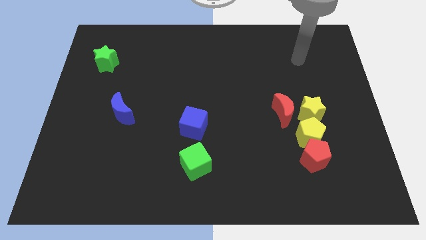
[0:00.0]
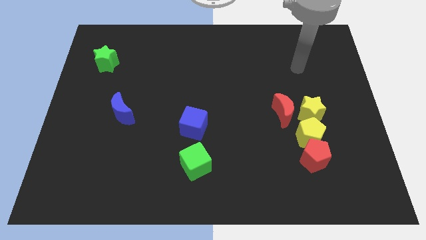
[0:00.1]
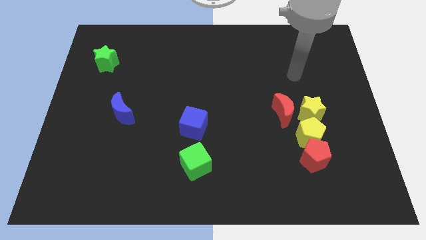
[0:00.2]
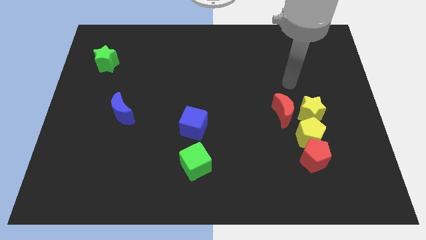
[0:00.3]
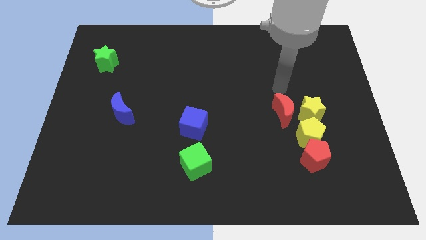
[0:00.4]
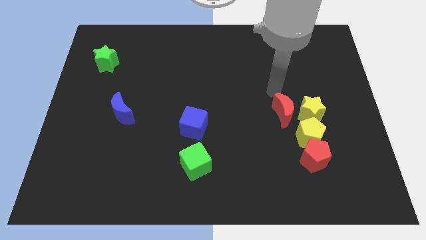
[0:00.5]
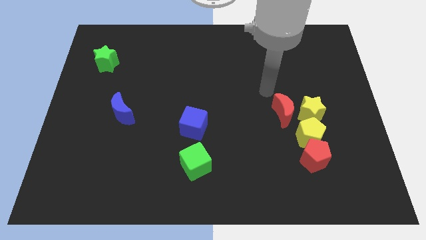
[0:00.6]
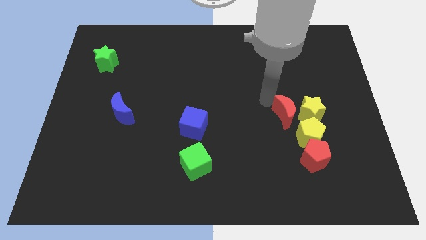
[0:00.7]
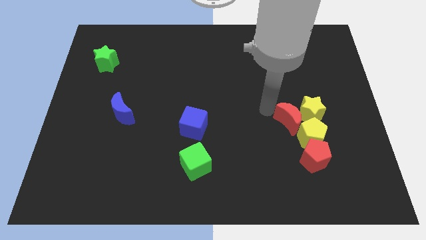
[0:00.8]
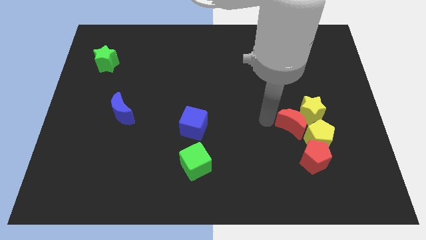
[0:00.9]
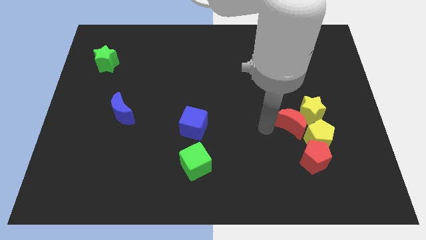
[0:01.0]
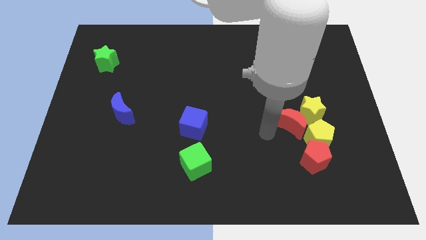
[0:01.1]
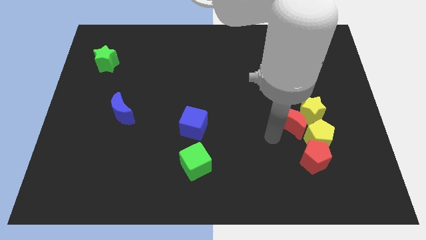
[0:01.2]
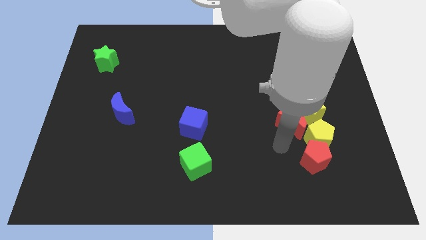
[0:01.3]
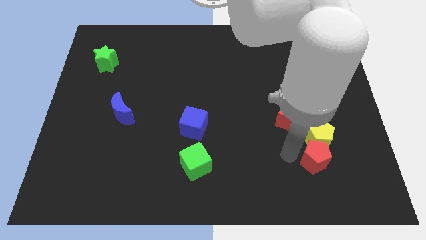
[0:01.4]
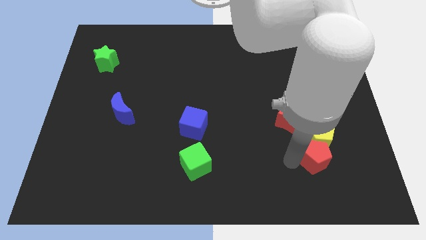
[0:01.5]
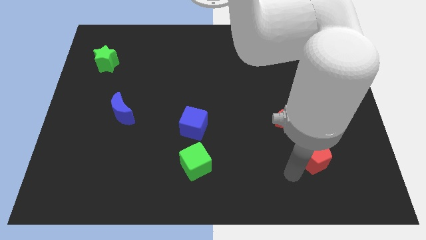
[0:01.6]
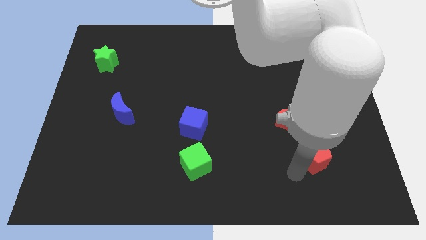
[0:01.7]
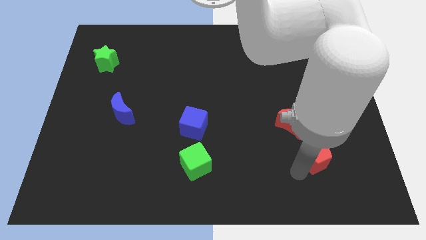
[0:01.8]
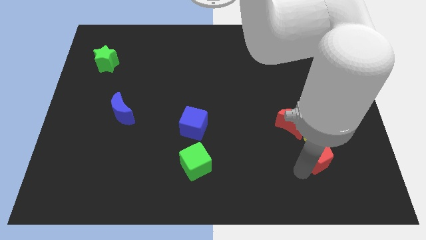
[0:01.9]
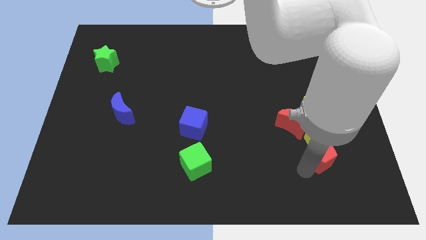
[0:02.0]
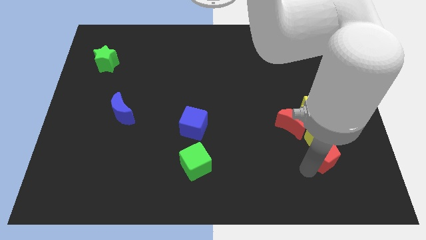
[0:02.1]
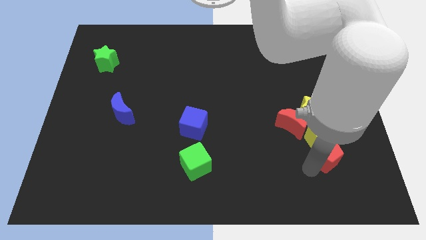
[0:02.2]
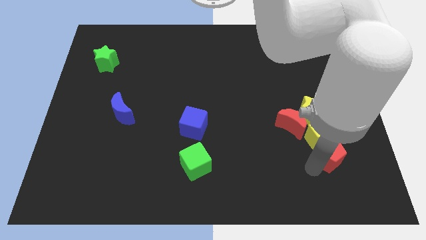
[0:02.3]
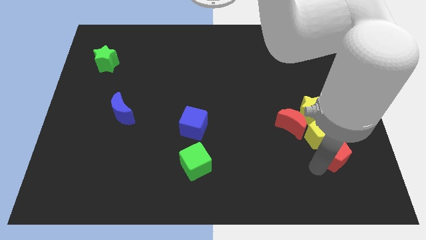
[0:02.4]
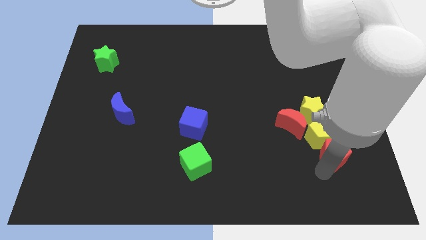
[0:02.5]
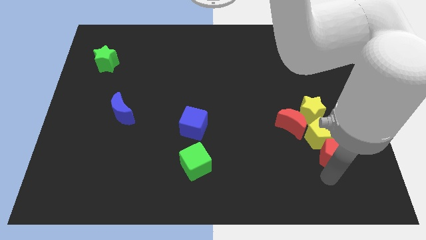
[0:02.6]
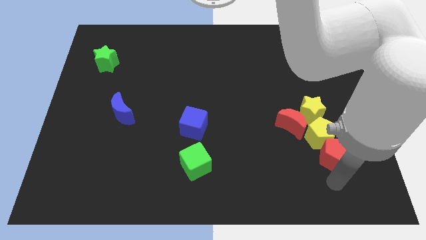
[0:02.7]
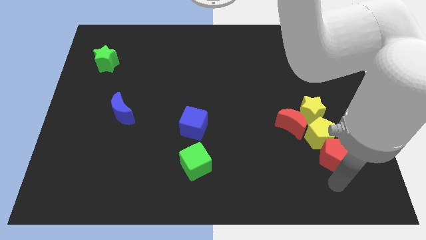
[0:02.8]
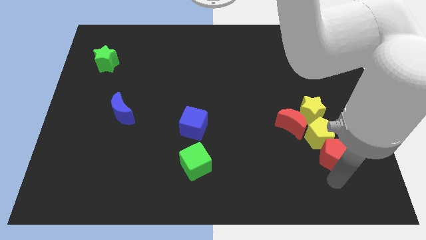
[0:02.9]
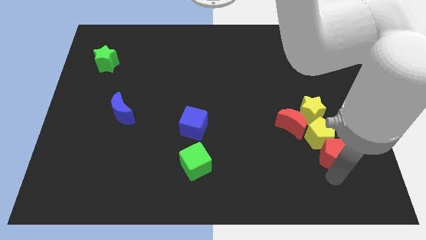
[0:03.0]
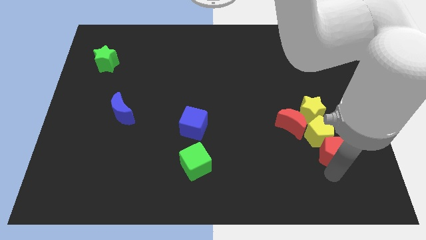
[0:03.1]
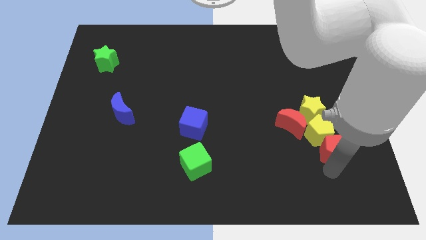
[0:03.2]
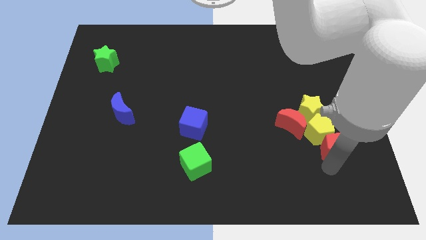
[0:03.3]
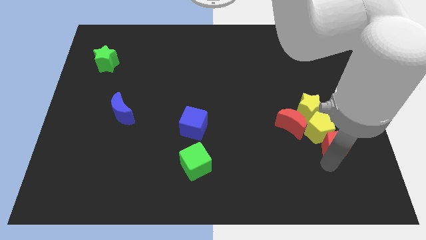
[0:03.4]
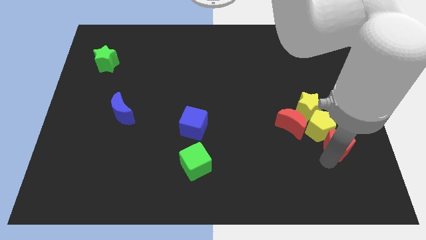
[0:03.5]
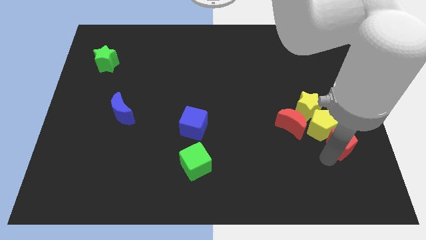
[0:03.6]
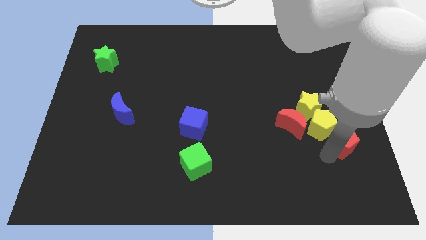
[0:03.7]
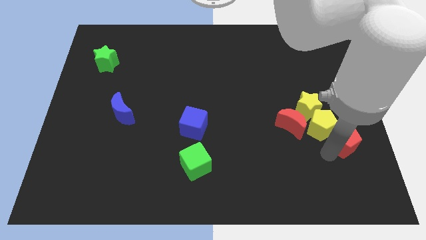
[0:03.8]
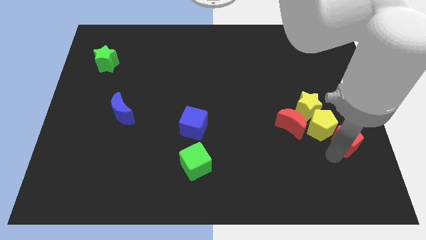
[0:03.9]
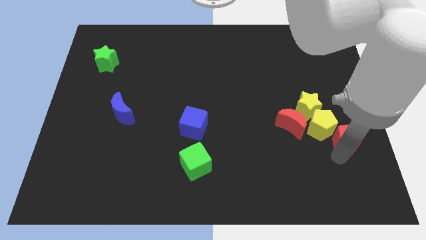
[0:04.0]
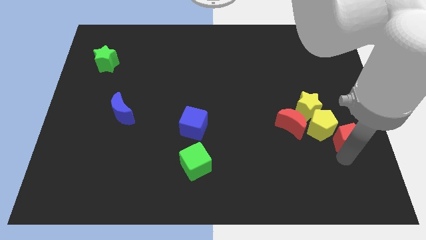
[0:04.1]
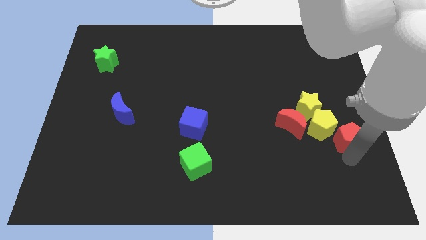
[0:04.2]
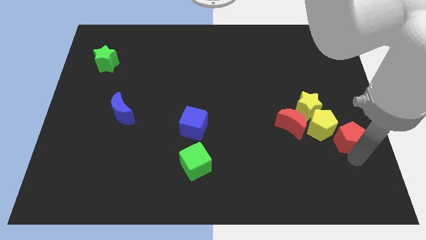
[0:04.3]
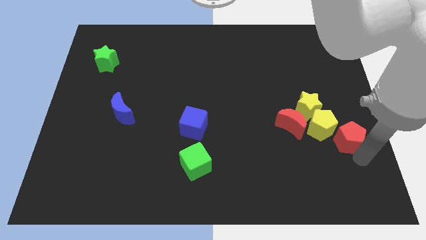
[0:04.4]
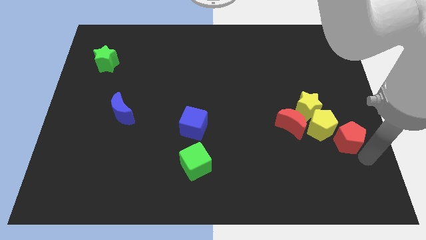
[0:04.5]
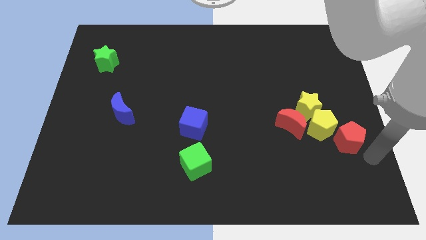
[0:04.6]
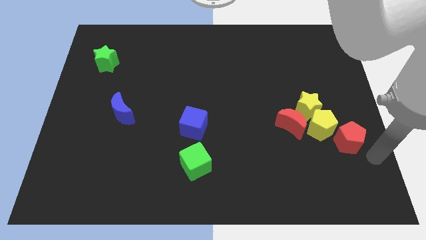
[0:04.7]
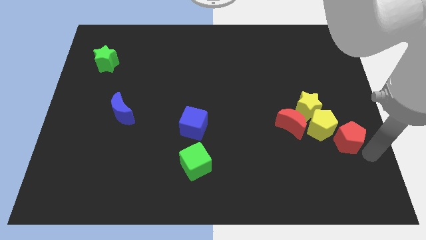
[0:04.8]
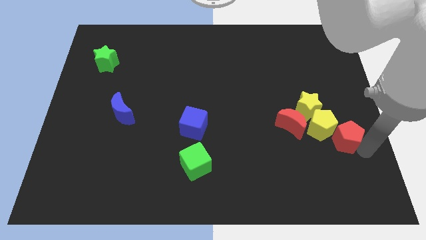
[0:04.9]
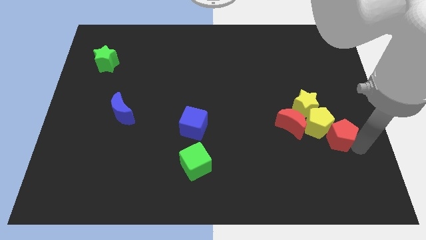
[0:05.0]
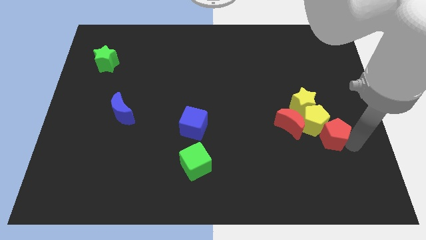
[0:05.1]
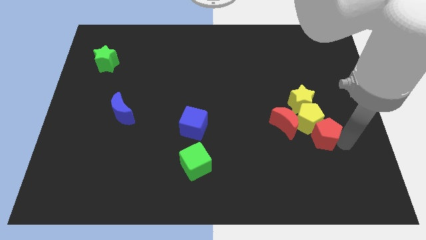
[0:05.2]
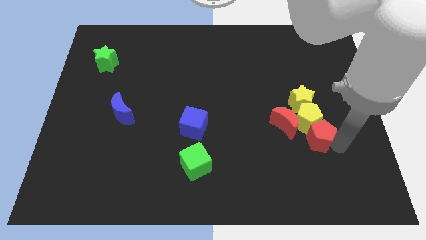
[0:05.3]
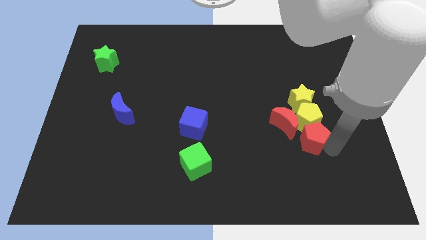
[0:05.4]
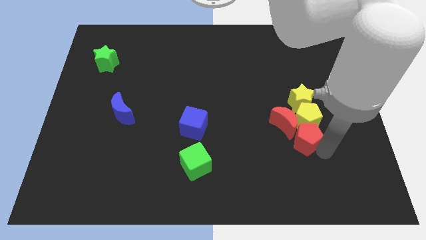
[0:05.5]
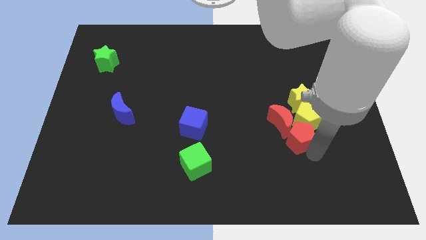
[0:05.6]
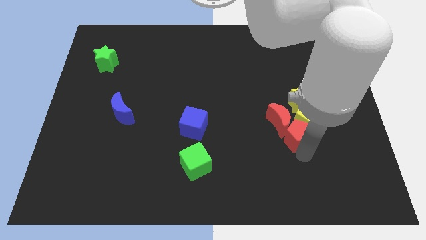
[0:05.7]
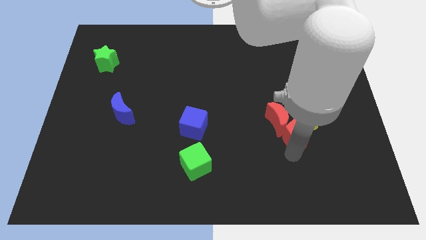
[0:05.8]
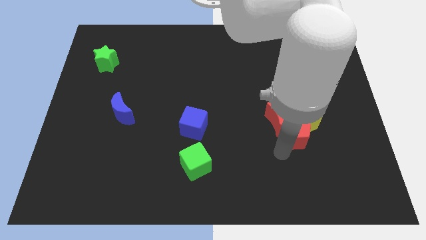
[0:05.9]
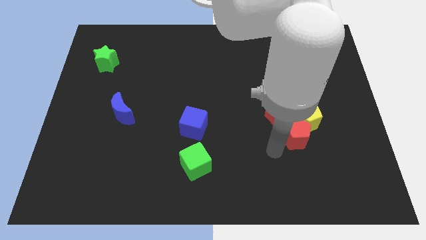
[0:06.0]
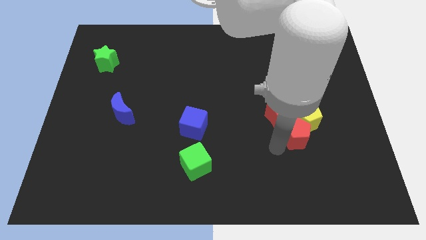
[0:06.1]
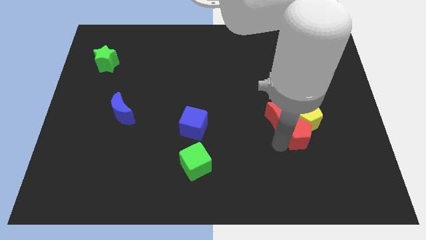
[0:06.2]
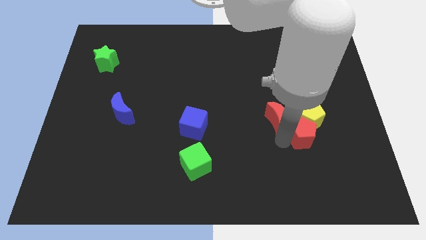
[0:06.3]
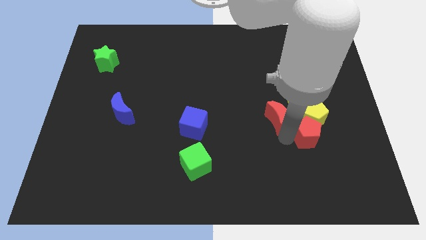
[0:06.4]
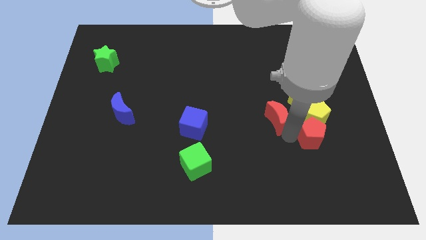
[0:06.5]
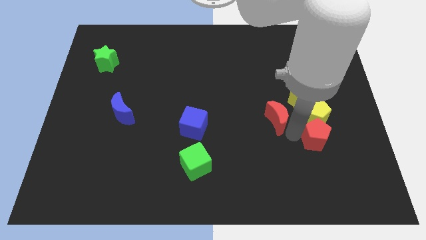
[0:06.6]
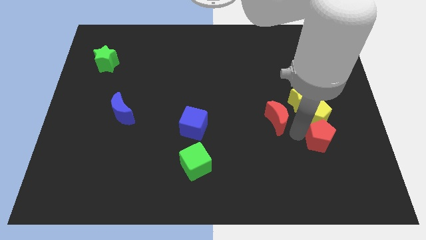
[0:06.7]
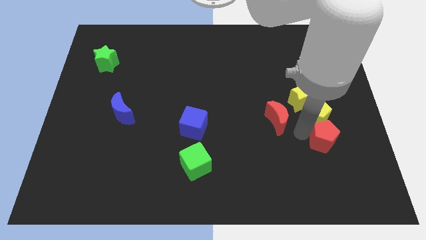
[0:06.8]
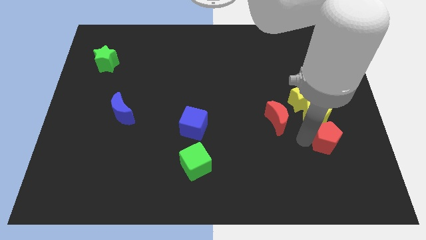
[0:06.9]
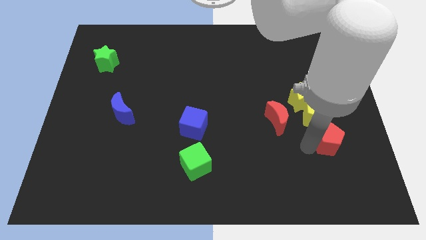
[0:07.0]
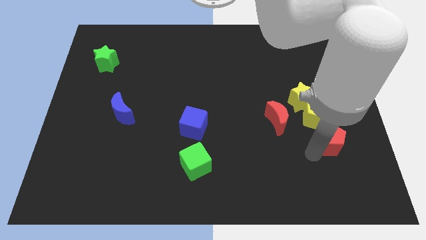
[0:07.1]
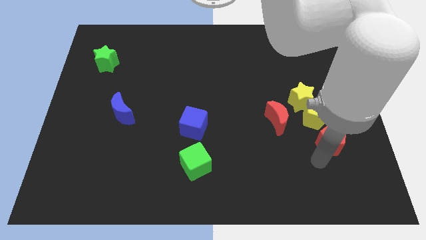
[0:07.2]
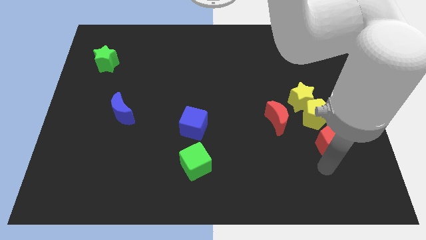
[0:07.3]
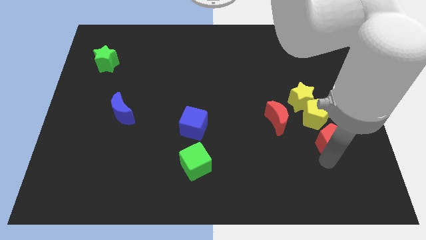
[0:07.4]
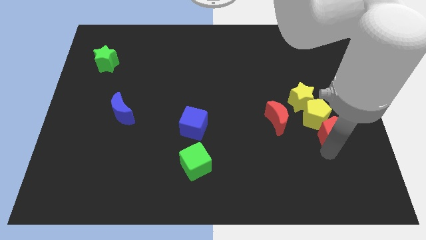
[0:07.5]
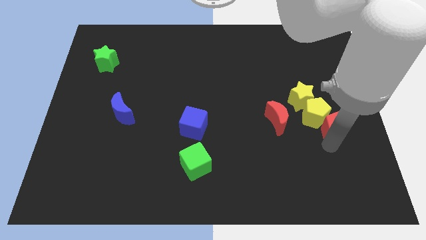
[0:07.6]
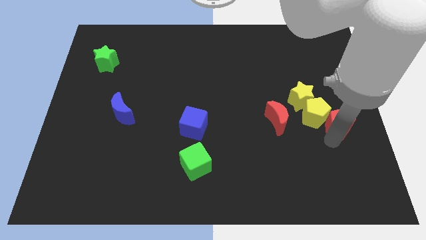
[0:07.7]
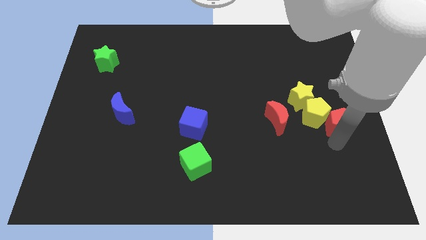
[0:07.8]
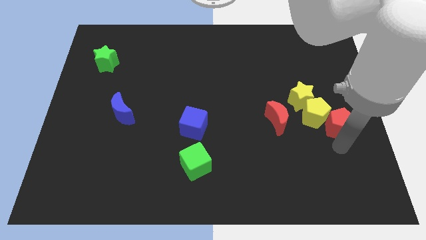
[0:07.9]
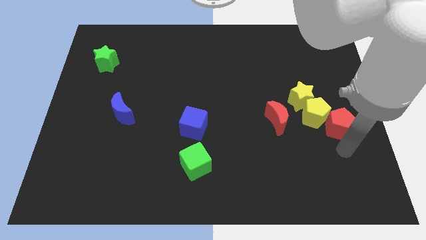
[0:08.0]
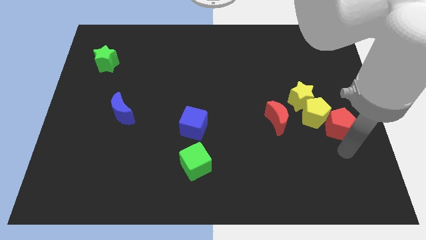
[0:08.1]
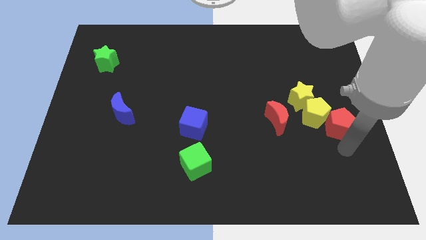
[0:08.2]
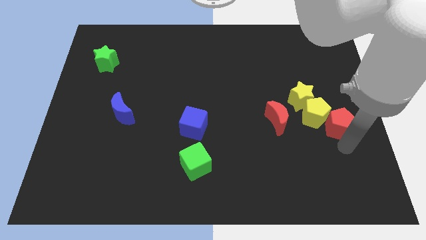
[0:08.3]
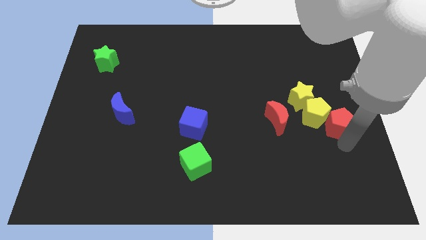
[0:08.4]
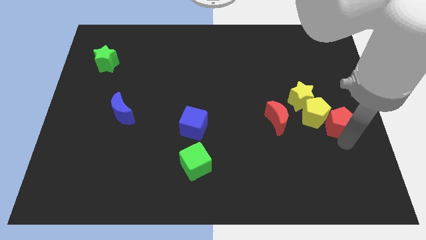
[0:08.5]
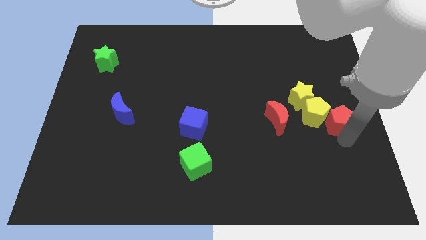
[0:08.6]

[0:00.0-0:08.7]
push the red pentagon upwards slightly
